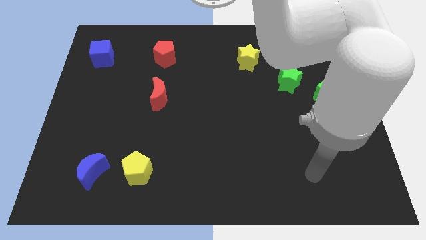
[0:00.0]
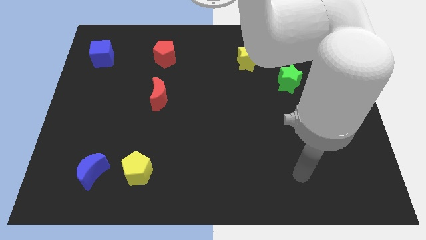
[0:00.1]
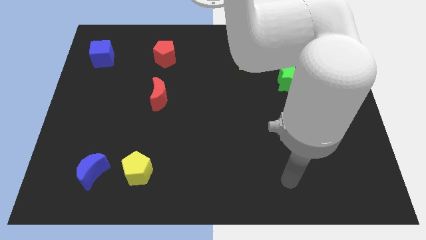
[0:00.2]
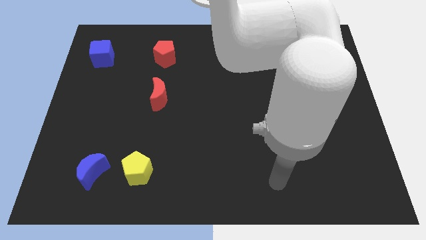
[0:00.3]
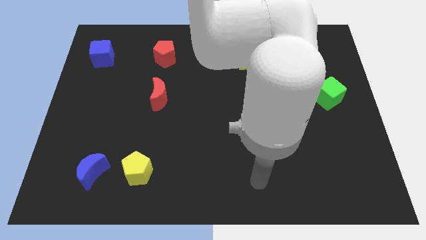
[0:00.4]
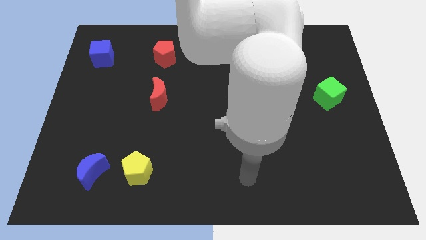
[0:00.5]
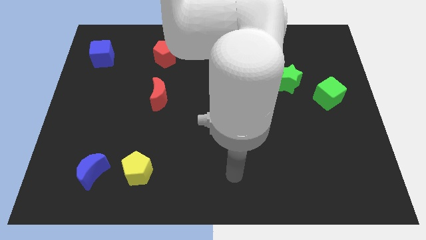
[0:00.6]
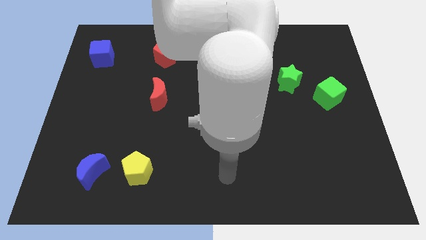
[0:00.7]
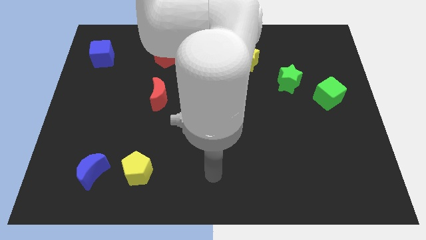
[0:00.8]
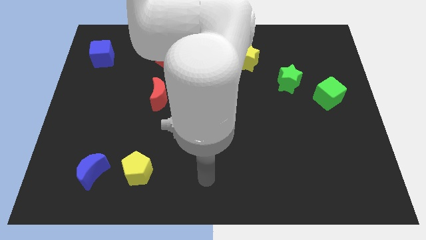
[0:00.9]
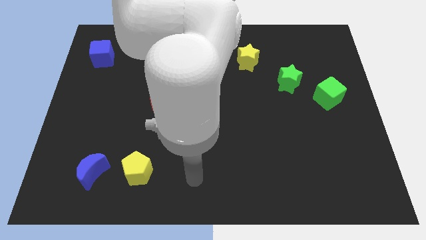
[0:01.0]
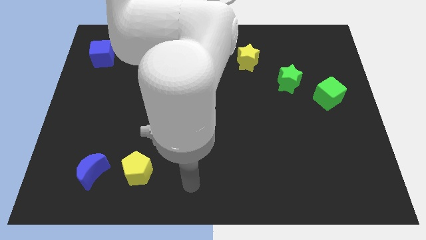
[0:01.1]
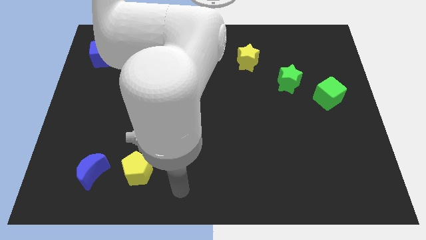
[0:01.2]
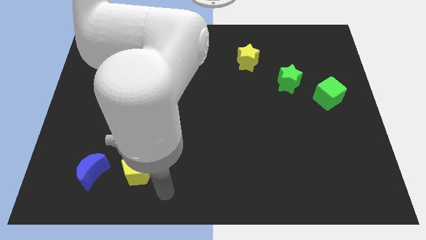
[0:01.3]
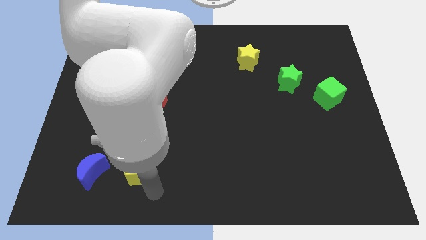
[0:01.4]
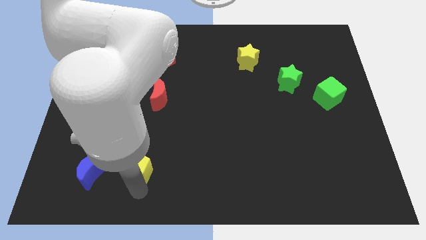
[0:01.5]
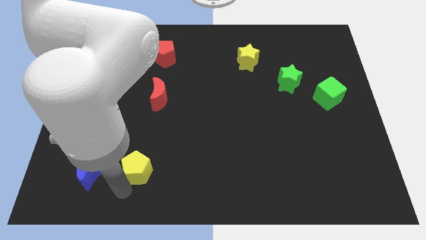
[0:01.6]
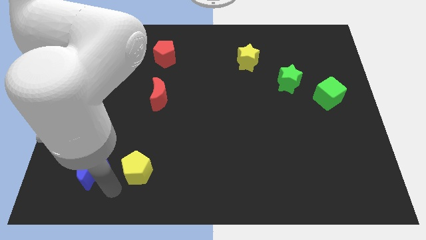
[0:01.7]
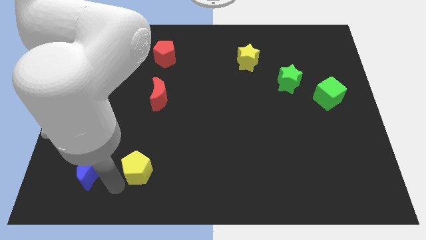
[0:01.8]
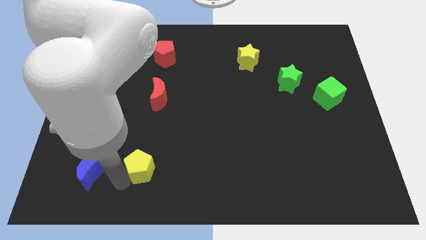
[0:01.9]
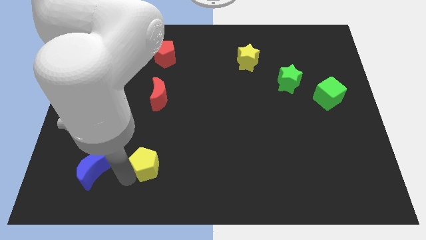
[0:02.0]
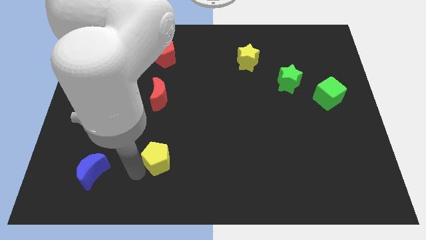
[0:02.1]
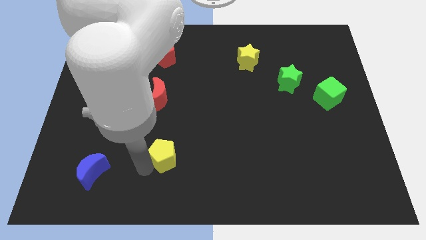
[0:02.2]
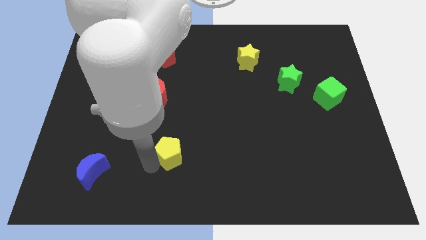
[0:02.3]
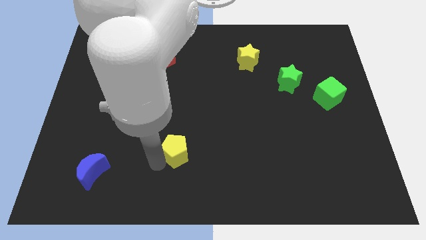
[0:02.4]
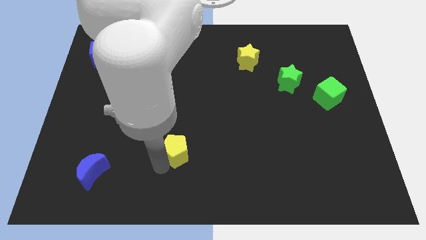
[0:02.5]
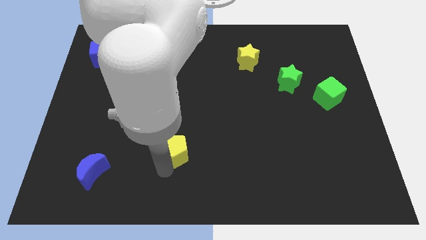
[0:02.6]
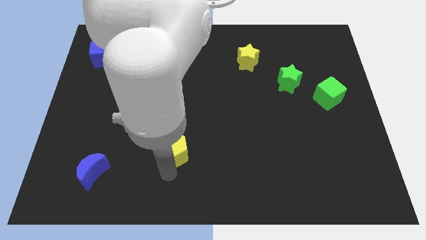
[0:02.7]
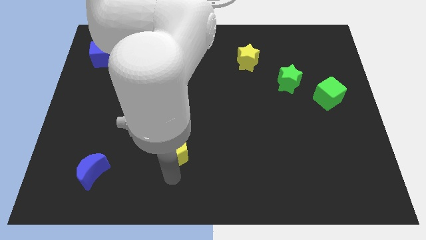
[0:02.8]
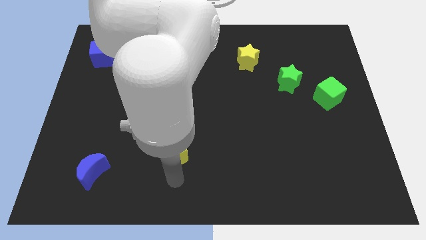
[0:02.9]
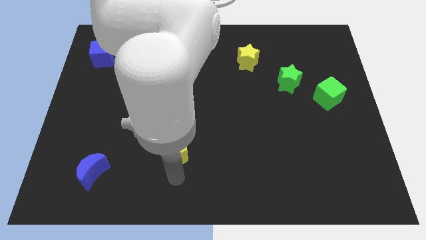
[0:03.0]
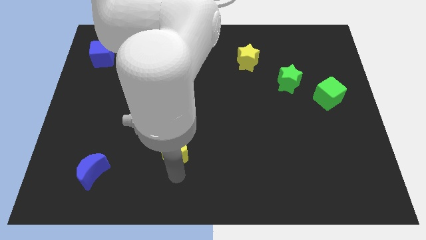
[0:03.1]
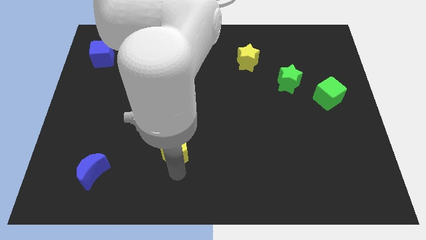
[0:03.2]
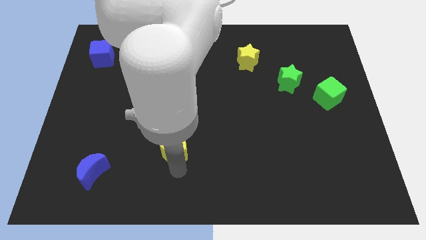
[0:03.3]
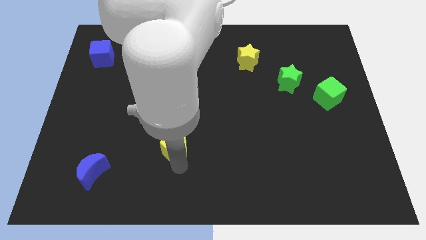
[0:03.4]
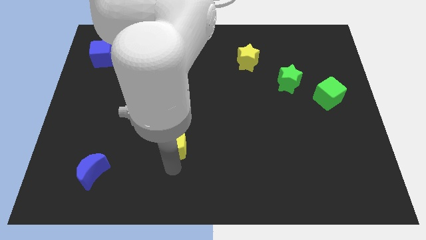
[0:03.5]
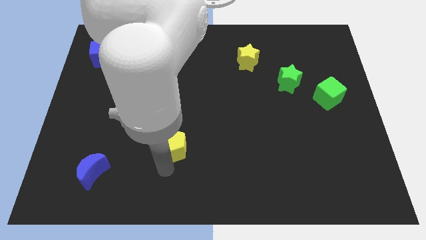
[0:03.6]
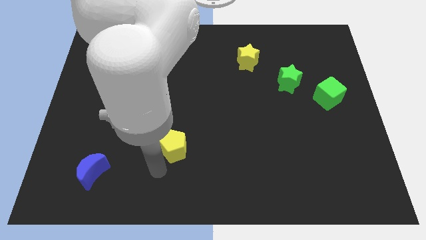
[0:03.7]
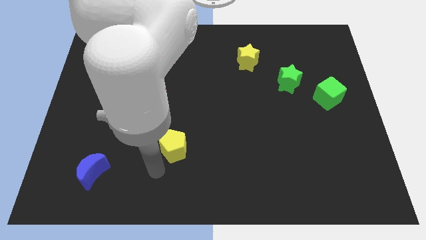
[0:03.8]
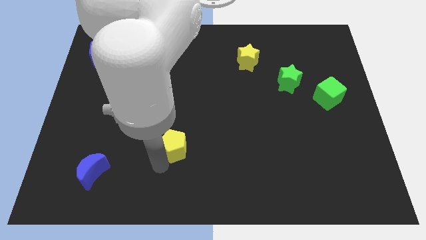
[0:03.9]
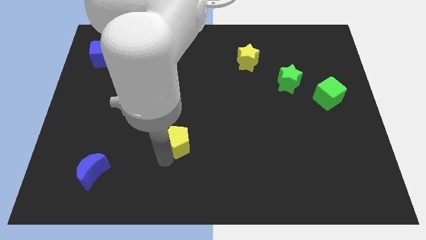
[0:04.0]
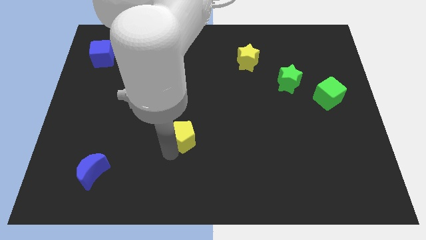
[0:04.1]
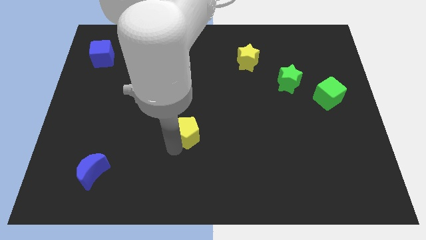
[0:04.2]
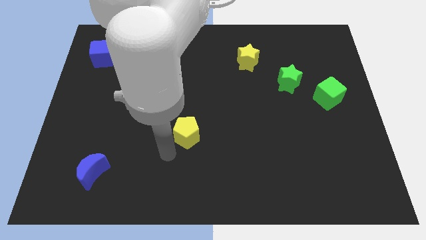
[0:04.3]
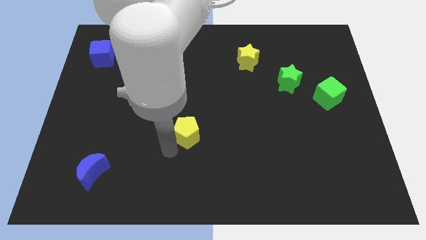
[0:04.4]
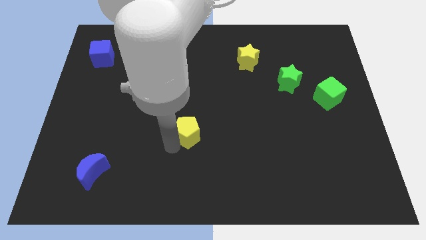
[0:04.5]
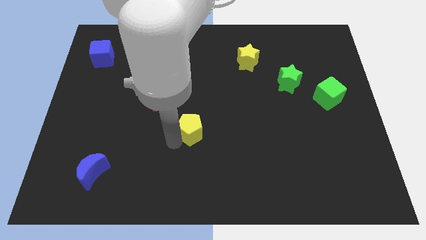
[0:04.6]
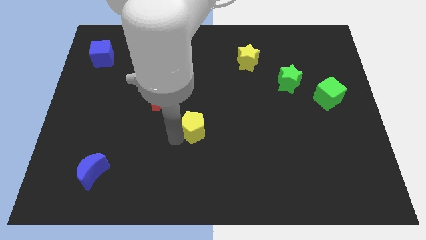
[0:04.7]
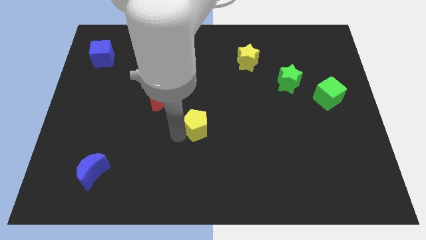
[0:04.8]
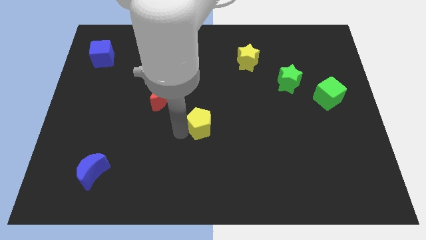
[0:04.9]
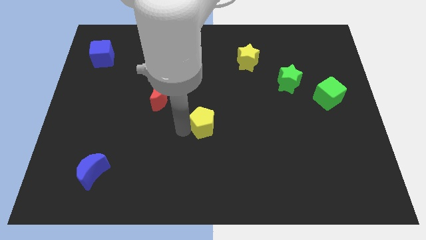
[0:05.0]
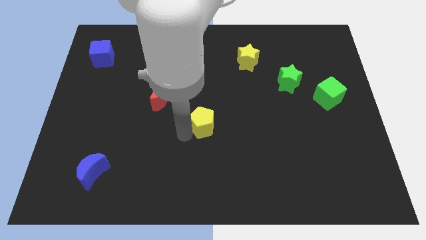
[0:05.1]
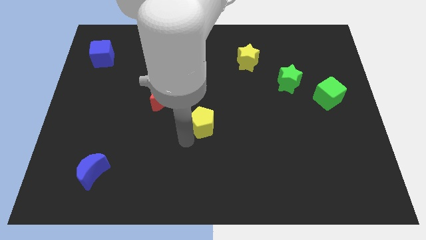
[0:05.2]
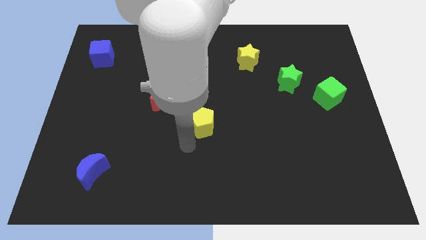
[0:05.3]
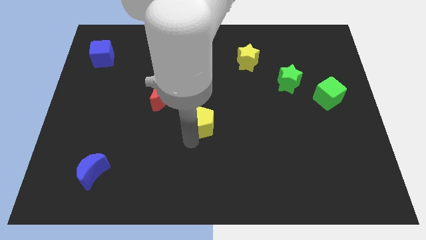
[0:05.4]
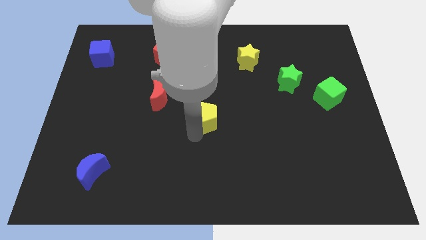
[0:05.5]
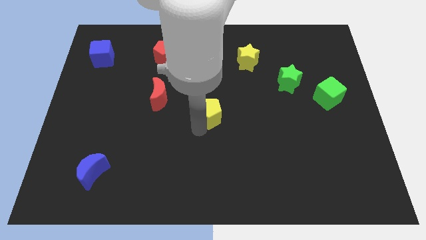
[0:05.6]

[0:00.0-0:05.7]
move the yellow pentagon upwards and right

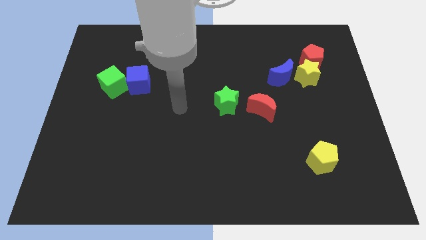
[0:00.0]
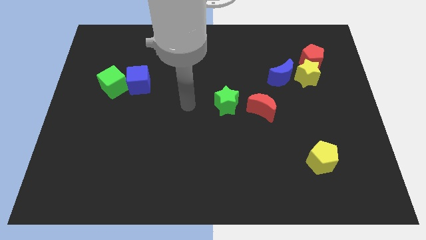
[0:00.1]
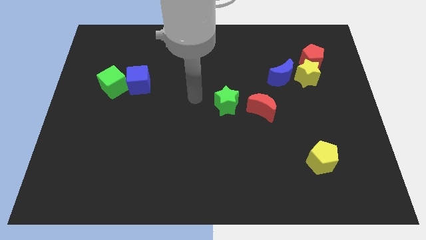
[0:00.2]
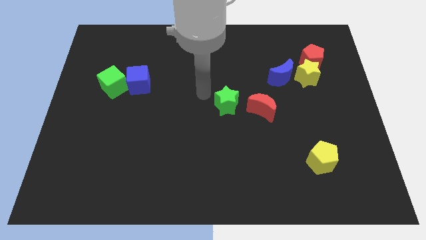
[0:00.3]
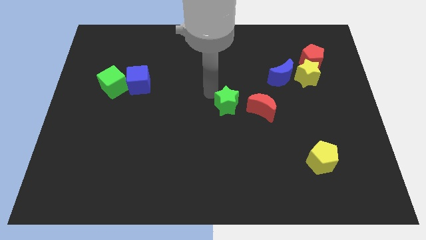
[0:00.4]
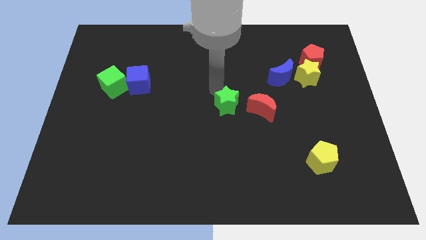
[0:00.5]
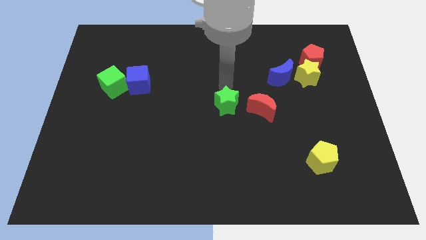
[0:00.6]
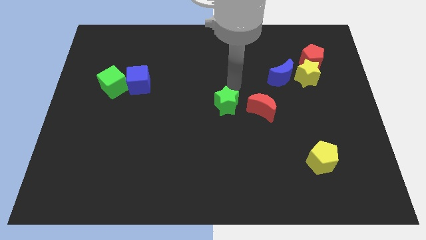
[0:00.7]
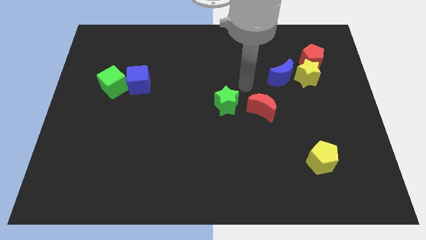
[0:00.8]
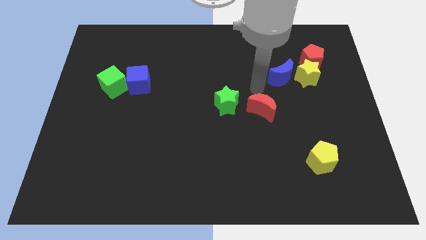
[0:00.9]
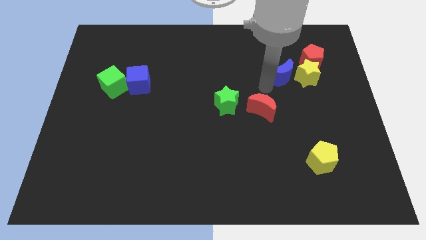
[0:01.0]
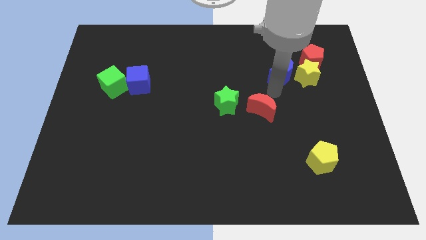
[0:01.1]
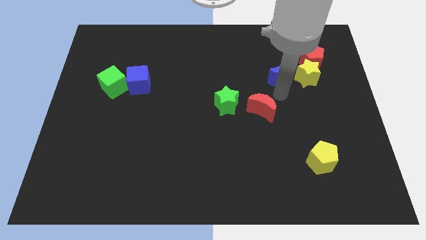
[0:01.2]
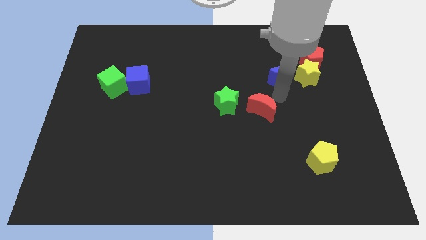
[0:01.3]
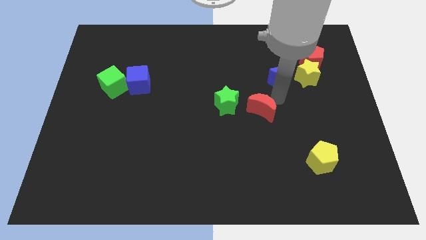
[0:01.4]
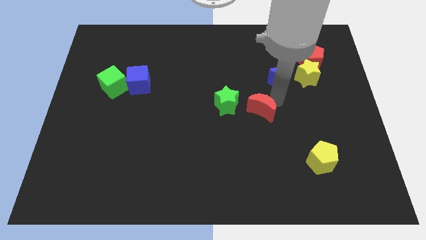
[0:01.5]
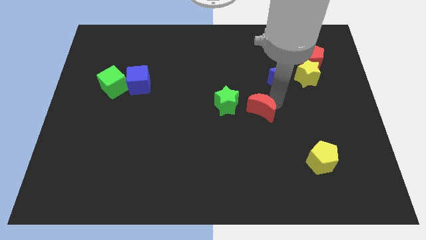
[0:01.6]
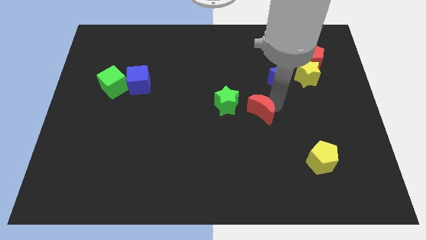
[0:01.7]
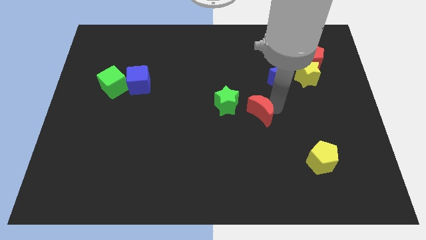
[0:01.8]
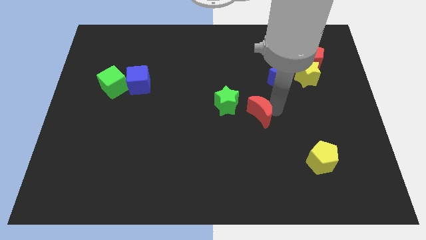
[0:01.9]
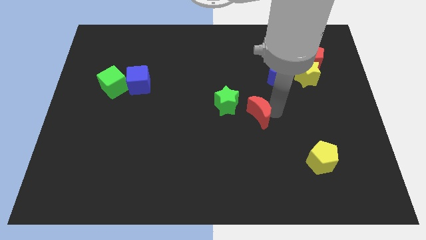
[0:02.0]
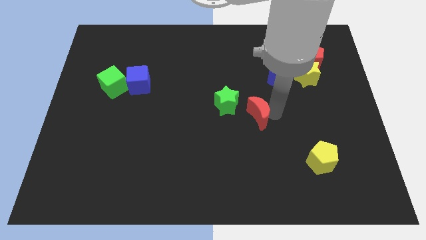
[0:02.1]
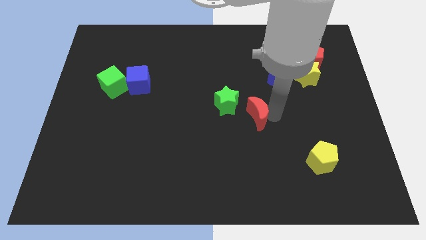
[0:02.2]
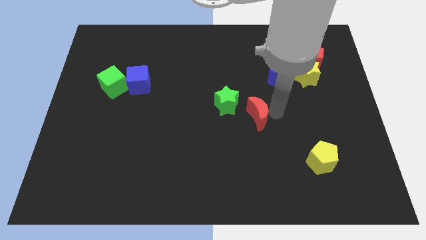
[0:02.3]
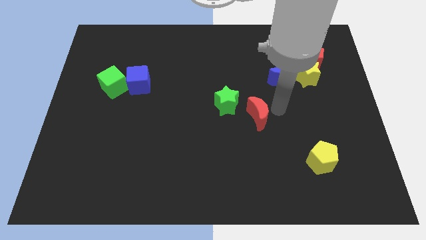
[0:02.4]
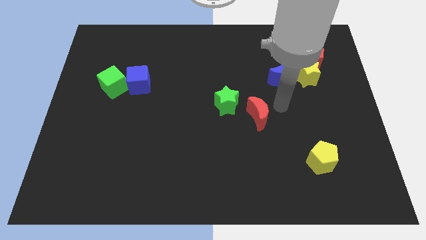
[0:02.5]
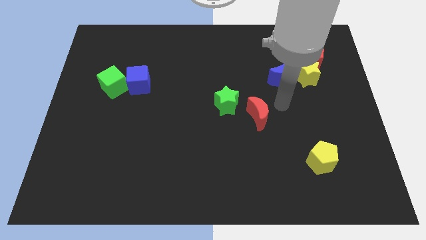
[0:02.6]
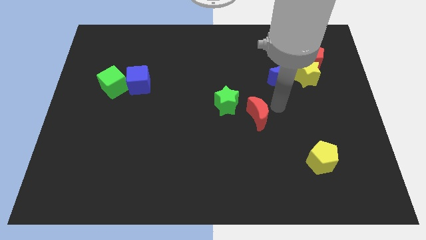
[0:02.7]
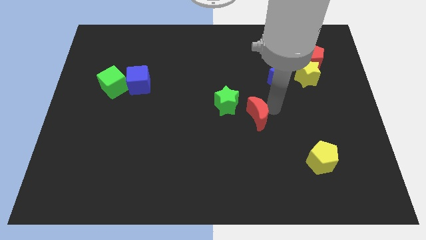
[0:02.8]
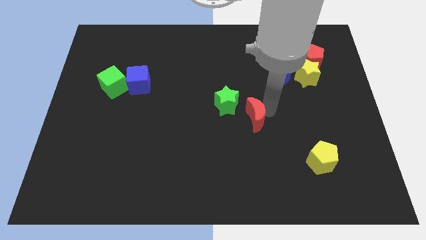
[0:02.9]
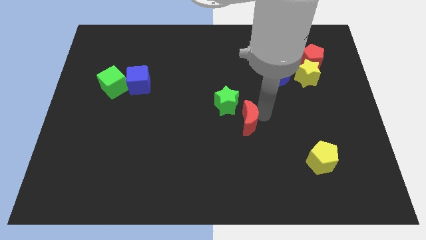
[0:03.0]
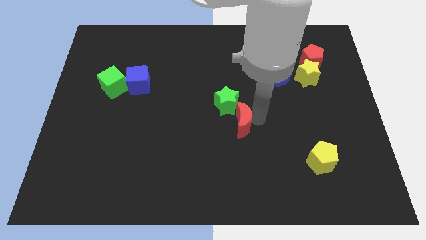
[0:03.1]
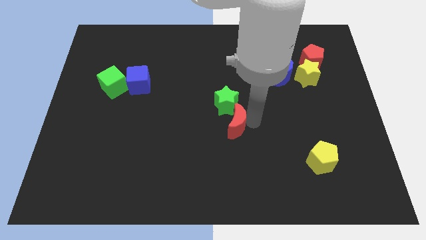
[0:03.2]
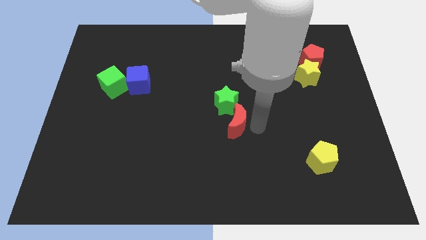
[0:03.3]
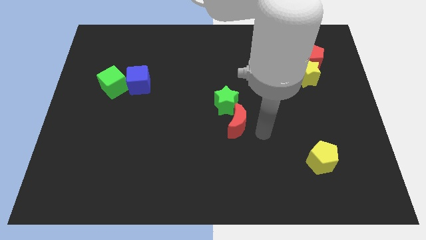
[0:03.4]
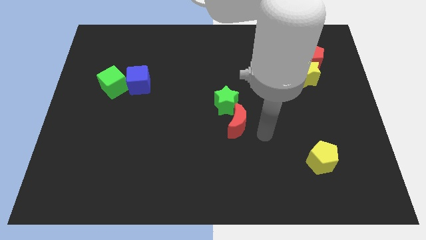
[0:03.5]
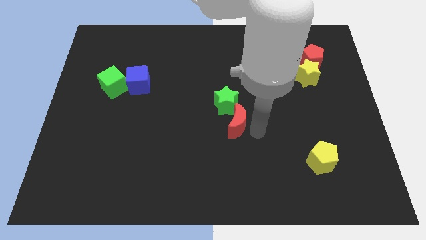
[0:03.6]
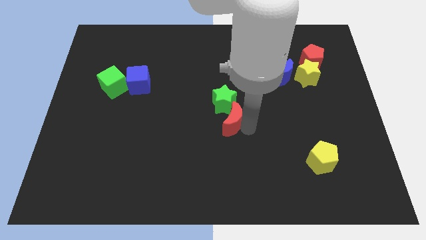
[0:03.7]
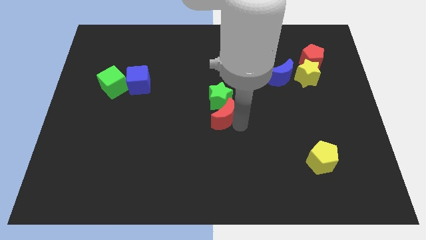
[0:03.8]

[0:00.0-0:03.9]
slide the red moon somewhat left
